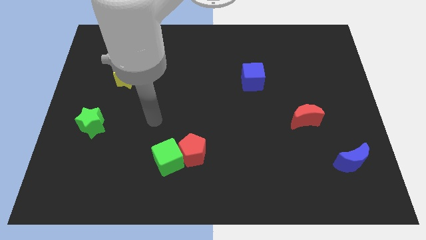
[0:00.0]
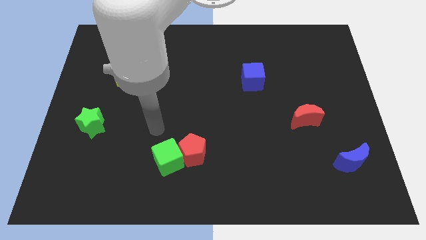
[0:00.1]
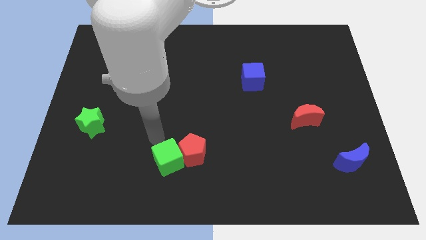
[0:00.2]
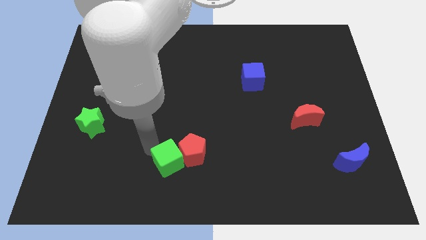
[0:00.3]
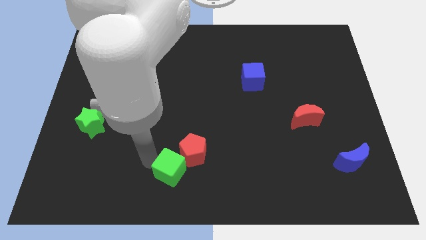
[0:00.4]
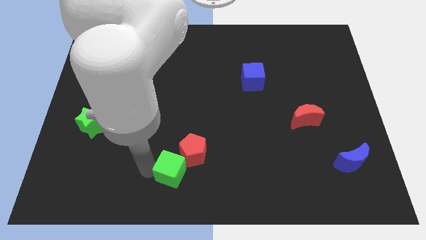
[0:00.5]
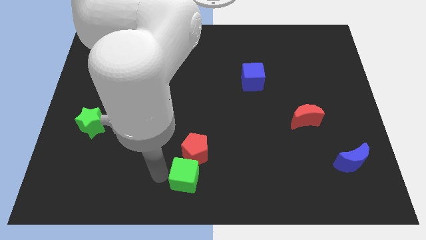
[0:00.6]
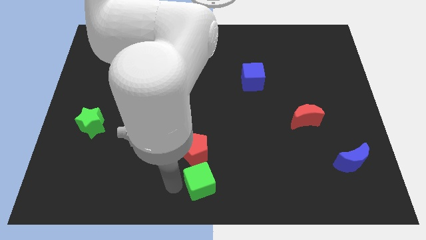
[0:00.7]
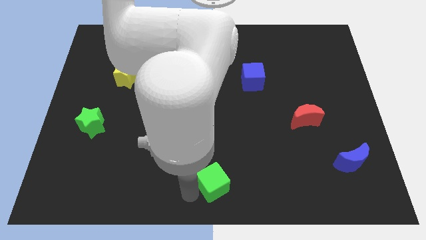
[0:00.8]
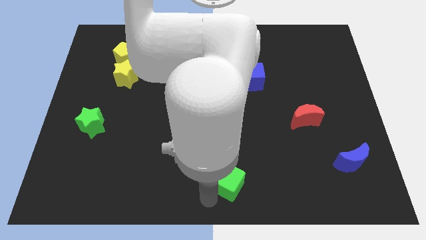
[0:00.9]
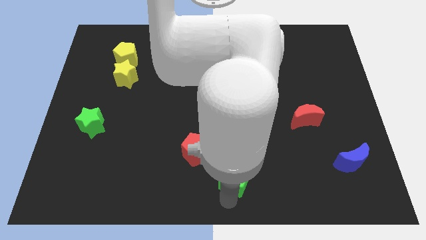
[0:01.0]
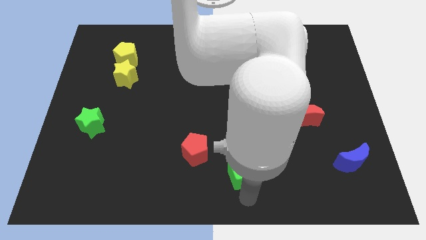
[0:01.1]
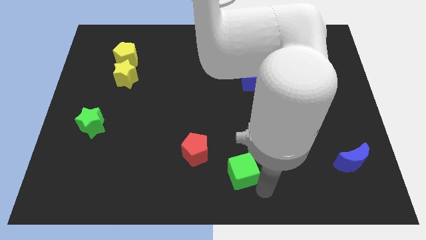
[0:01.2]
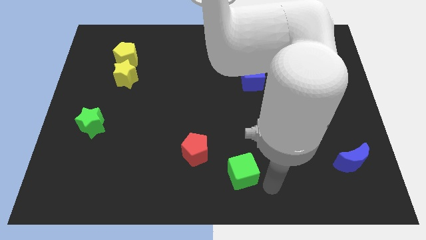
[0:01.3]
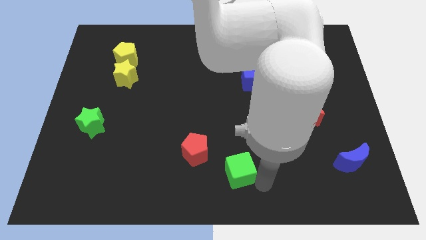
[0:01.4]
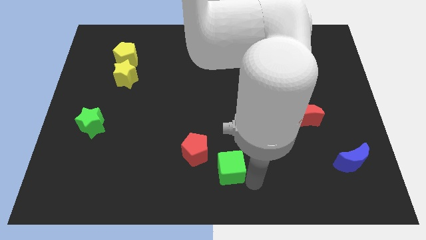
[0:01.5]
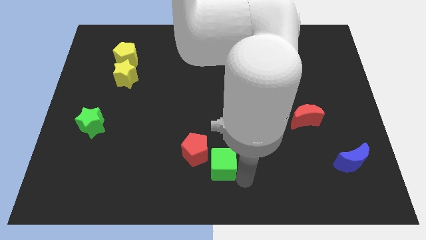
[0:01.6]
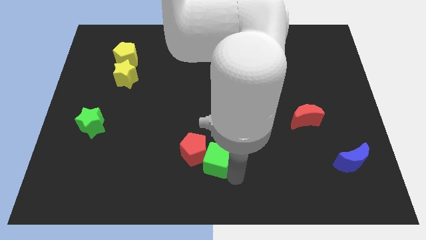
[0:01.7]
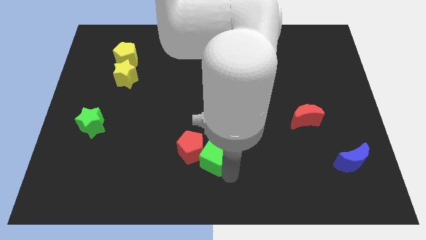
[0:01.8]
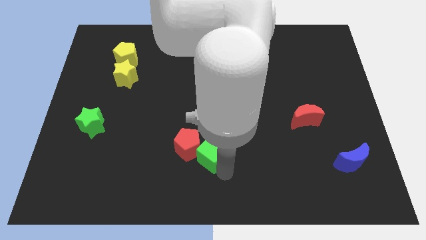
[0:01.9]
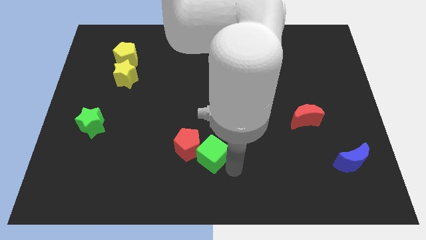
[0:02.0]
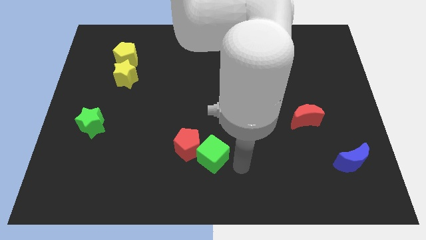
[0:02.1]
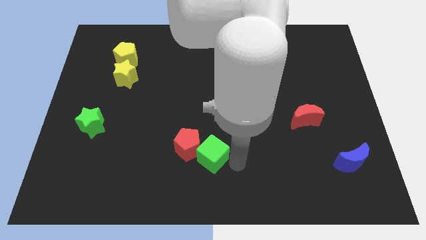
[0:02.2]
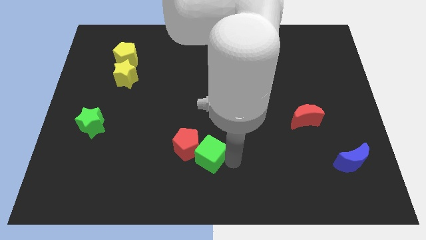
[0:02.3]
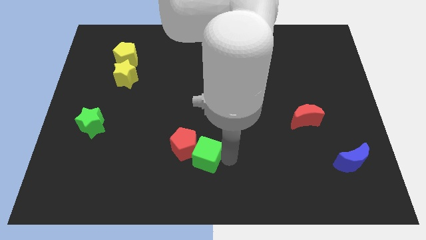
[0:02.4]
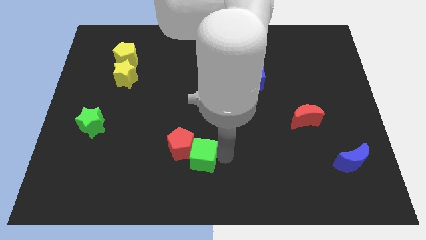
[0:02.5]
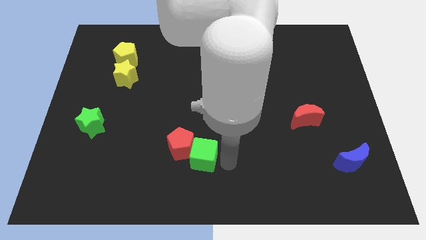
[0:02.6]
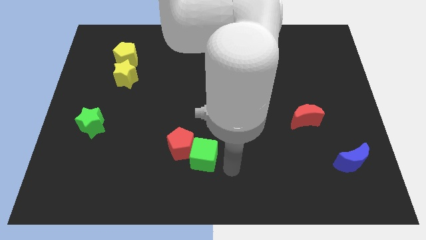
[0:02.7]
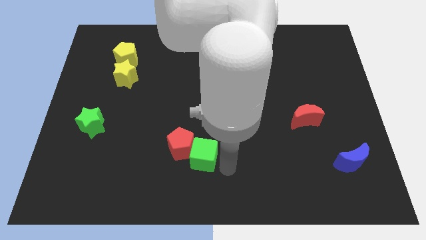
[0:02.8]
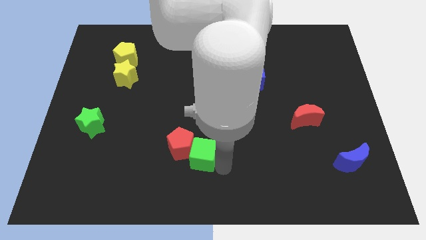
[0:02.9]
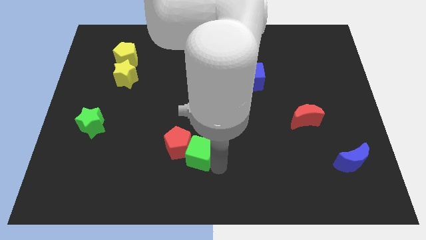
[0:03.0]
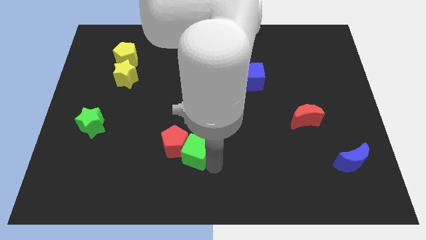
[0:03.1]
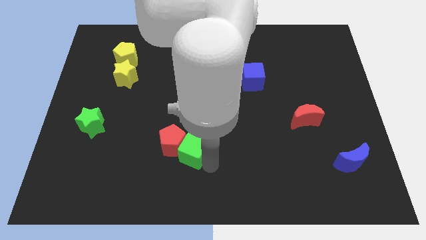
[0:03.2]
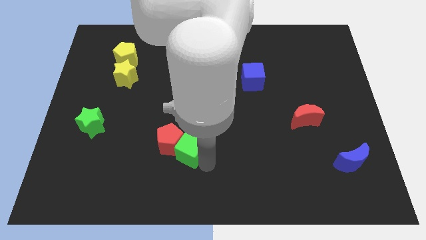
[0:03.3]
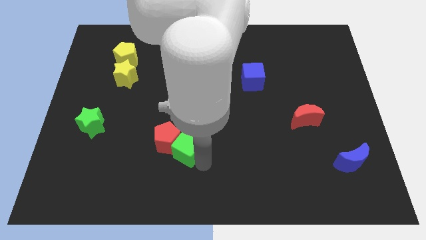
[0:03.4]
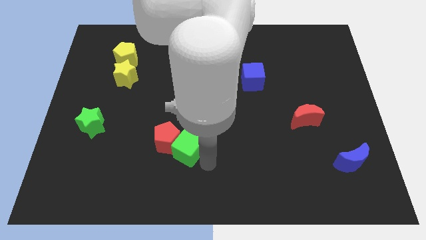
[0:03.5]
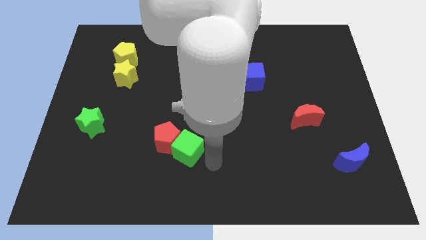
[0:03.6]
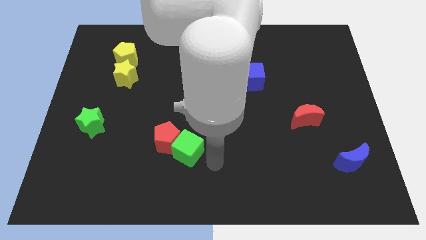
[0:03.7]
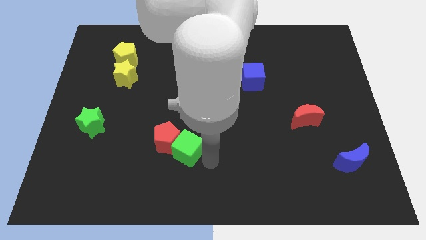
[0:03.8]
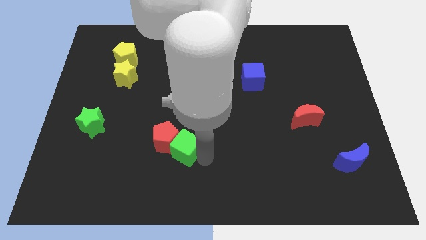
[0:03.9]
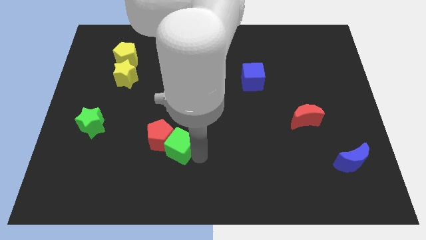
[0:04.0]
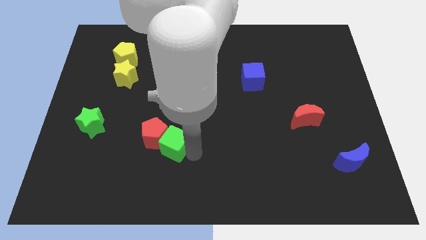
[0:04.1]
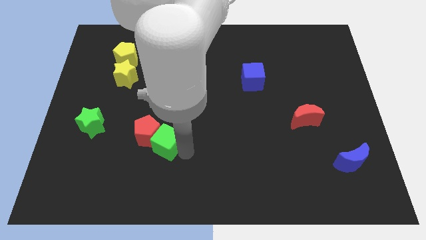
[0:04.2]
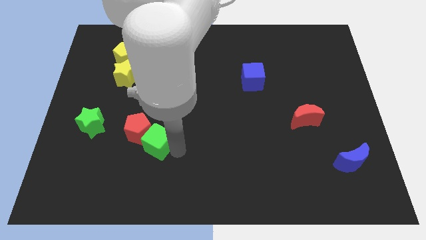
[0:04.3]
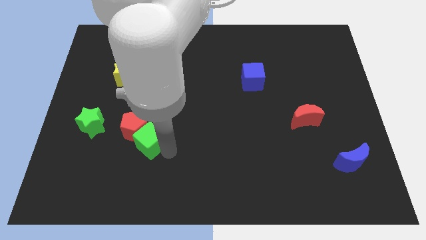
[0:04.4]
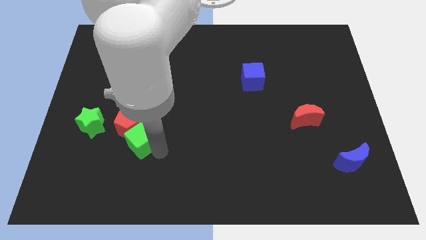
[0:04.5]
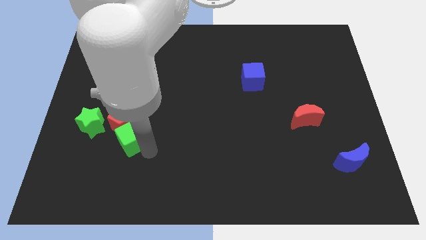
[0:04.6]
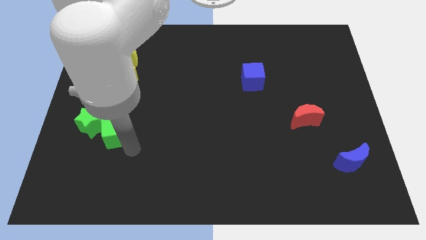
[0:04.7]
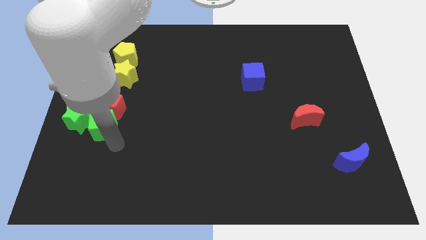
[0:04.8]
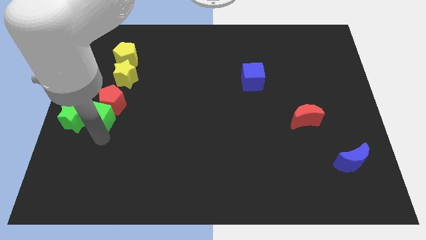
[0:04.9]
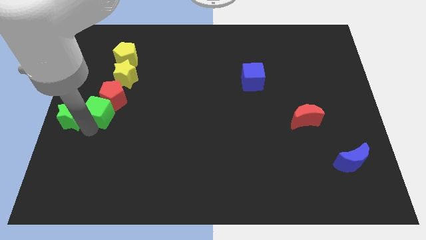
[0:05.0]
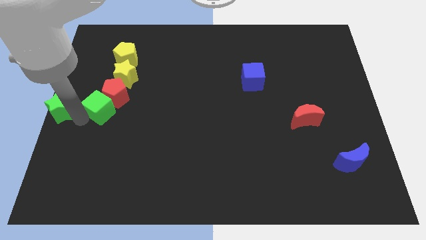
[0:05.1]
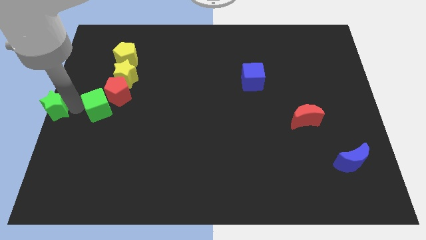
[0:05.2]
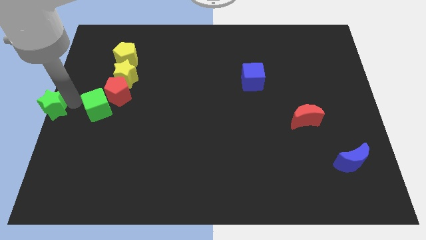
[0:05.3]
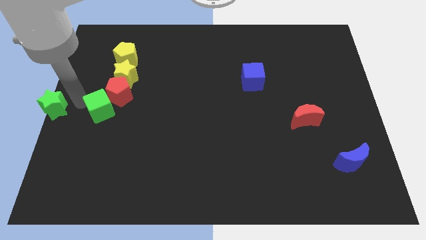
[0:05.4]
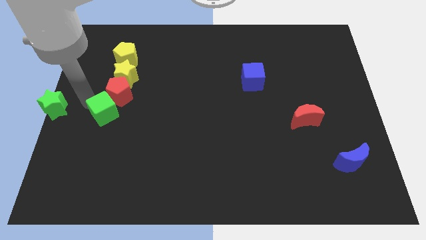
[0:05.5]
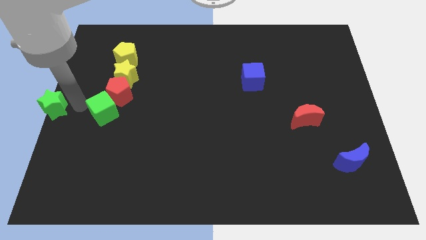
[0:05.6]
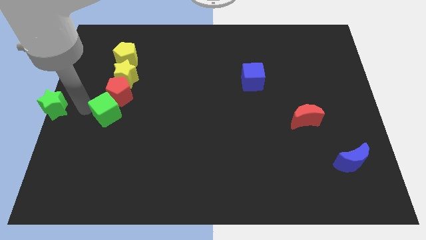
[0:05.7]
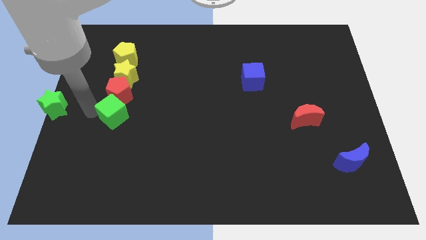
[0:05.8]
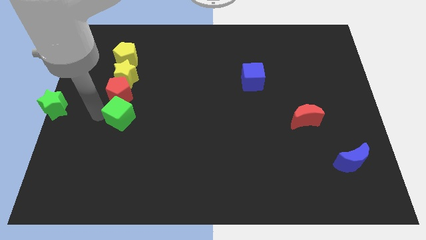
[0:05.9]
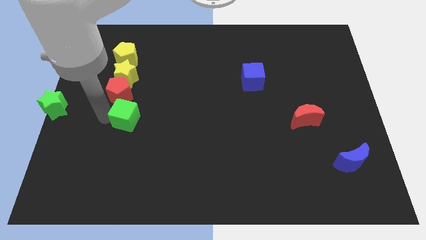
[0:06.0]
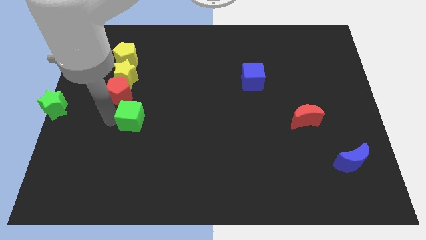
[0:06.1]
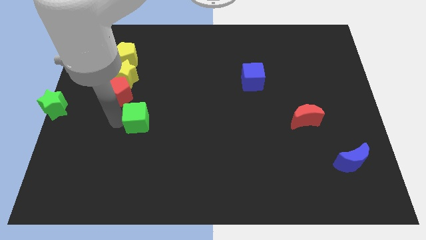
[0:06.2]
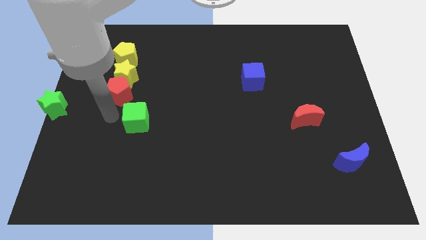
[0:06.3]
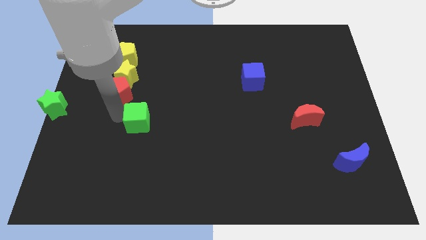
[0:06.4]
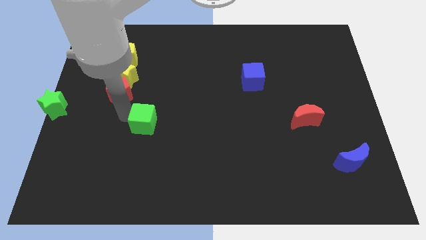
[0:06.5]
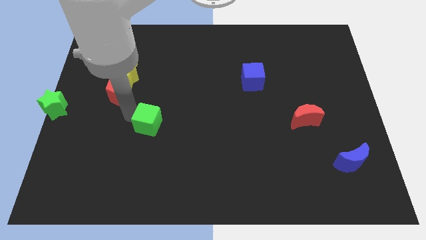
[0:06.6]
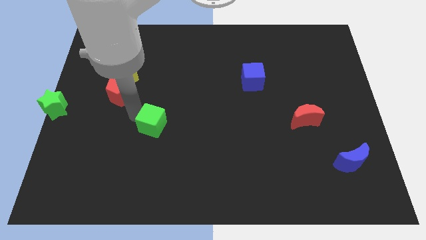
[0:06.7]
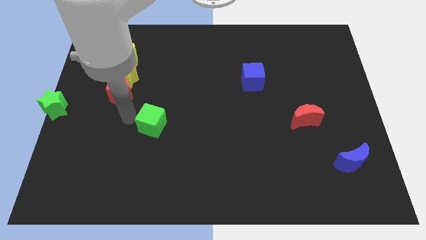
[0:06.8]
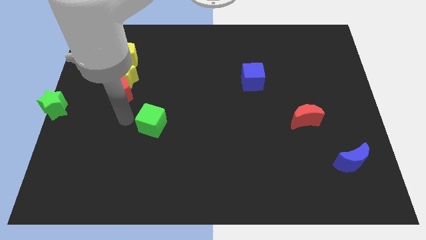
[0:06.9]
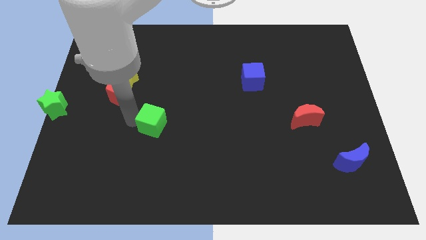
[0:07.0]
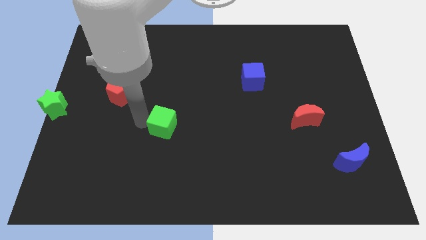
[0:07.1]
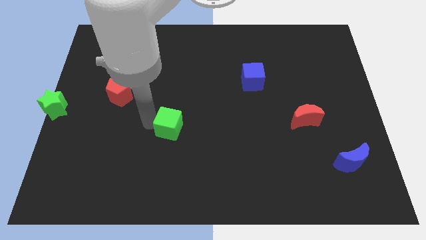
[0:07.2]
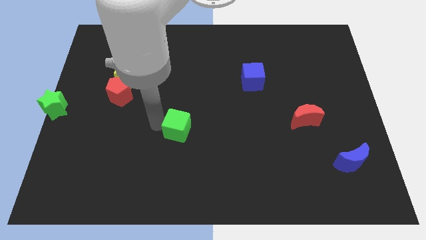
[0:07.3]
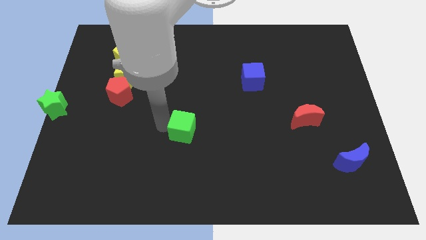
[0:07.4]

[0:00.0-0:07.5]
slightly slide the green cube upwards and right

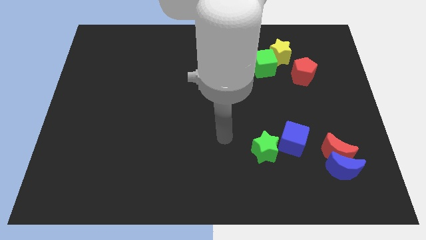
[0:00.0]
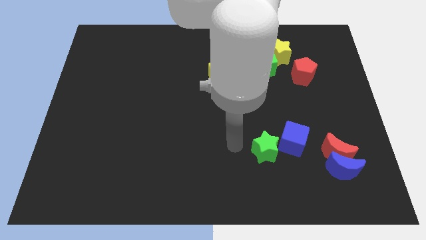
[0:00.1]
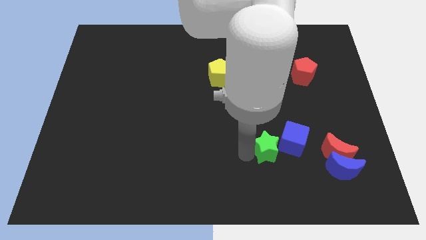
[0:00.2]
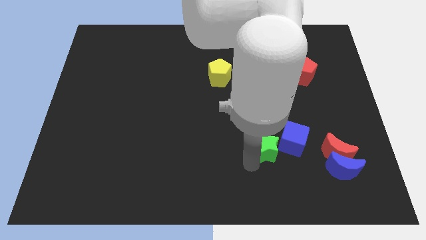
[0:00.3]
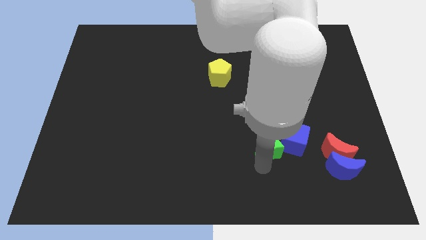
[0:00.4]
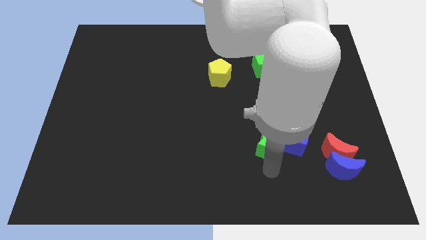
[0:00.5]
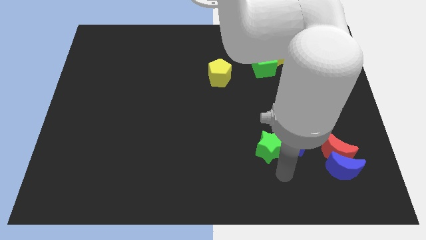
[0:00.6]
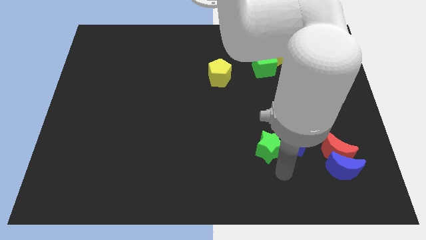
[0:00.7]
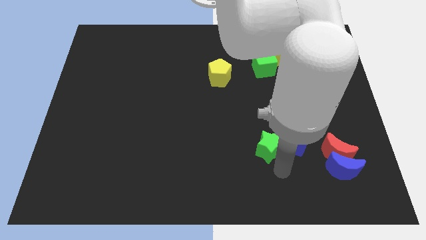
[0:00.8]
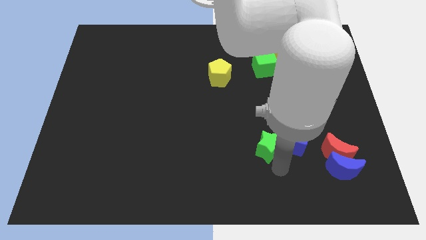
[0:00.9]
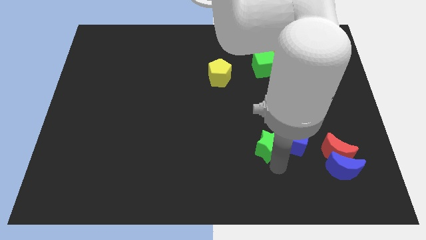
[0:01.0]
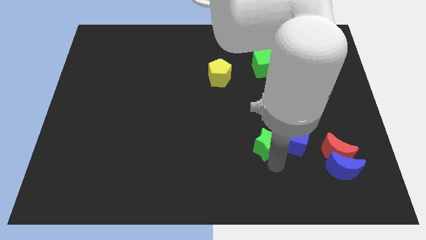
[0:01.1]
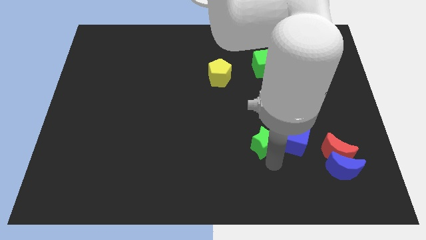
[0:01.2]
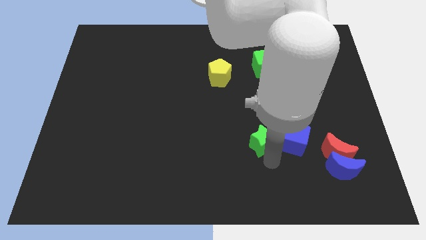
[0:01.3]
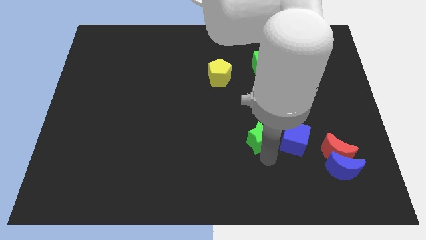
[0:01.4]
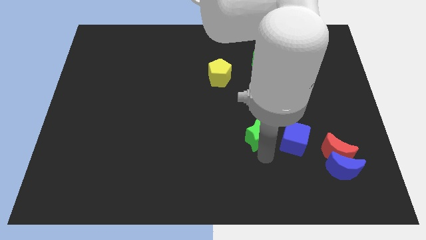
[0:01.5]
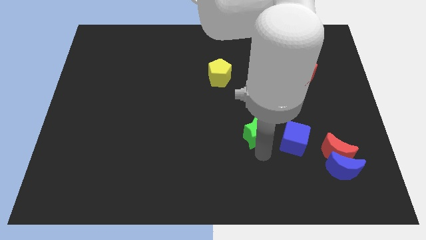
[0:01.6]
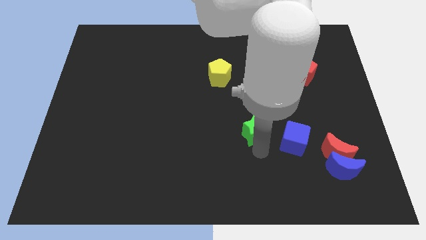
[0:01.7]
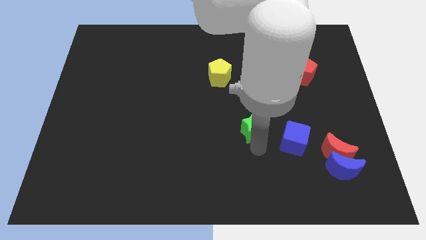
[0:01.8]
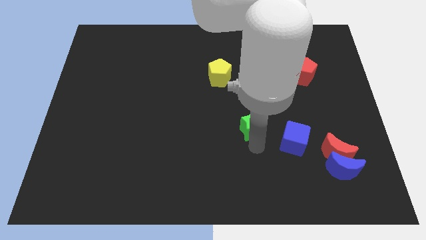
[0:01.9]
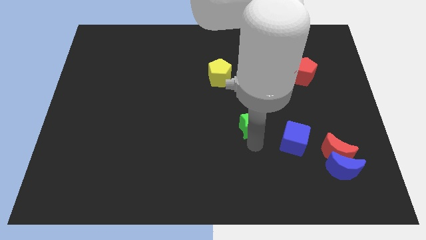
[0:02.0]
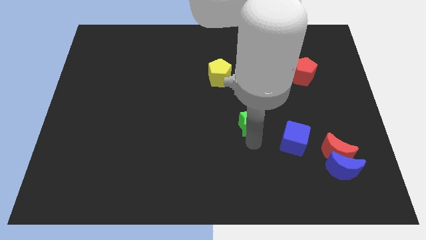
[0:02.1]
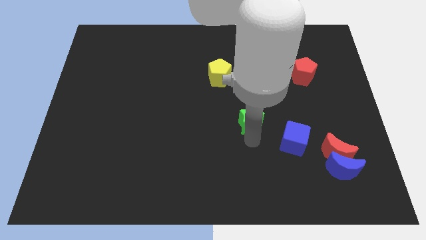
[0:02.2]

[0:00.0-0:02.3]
move the green star slightly up
